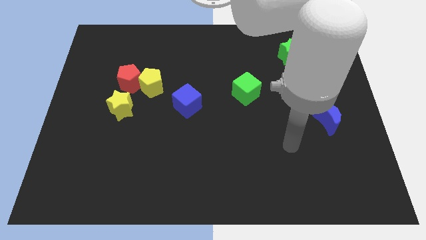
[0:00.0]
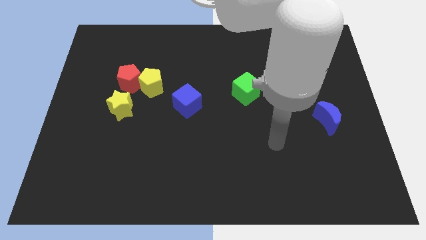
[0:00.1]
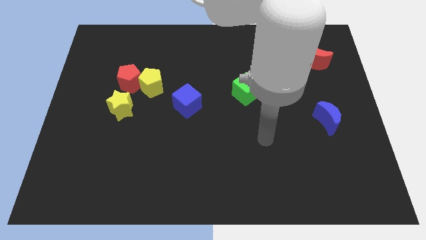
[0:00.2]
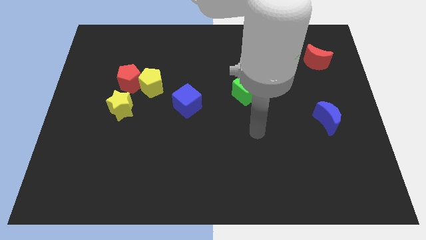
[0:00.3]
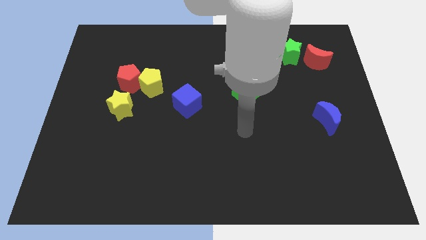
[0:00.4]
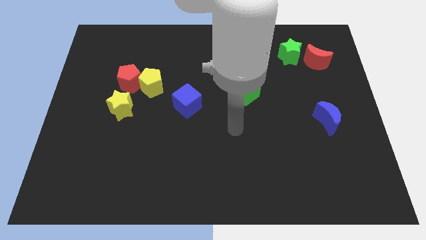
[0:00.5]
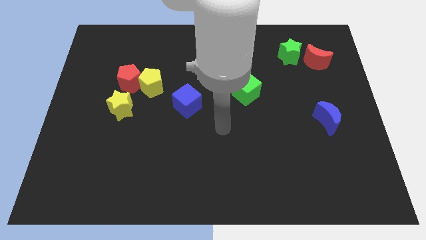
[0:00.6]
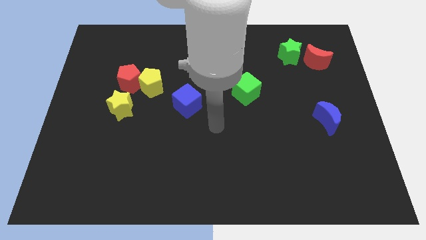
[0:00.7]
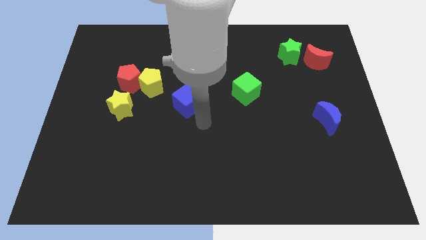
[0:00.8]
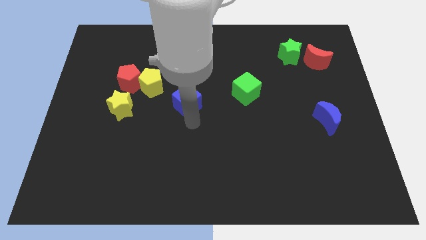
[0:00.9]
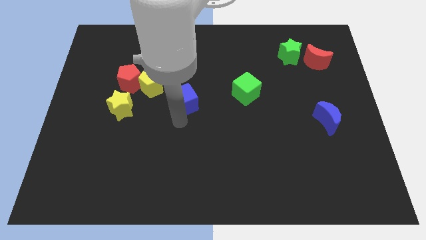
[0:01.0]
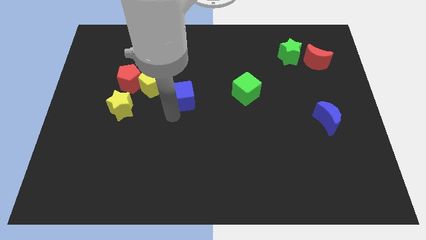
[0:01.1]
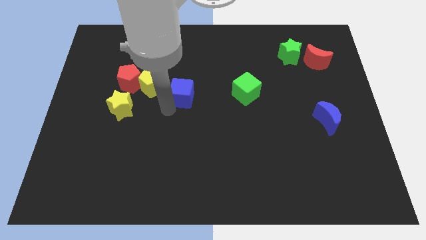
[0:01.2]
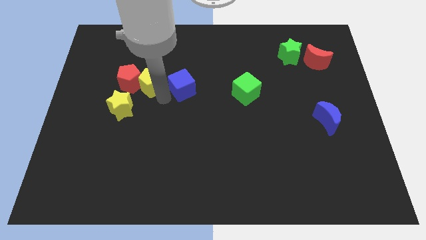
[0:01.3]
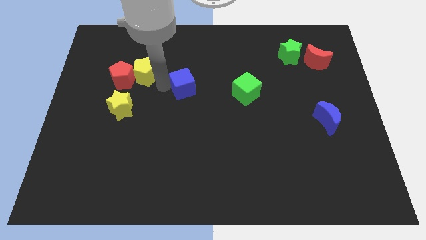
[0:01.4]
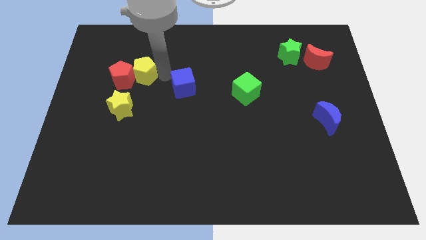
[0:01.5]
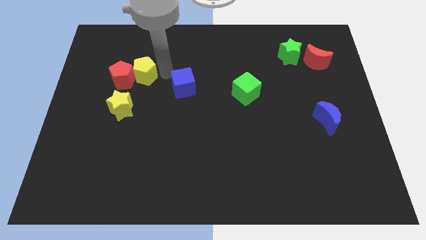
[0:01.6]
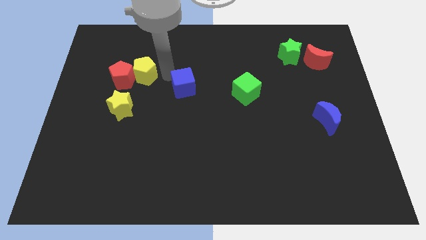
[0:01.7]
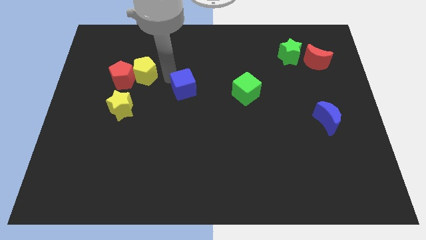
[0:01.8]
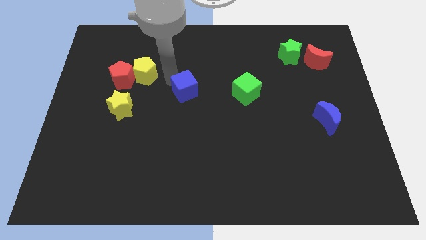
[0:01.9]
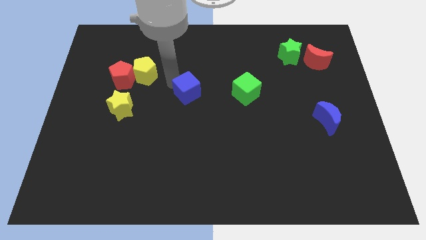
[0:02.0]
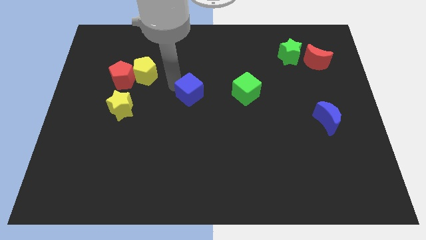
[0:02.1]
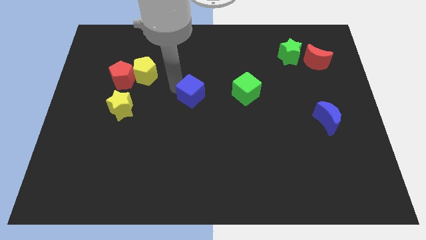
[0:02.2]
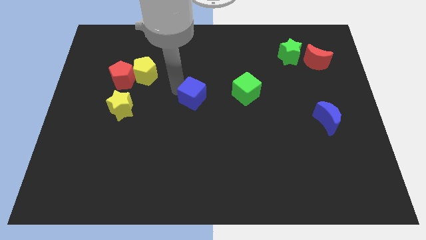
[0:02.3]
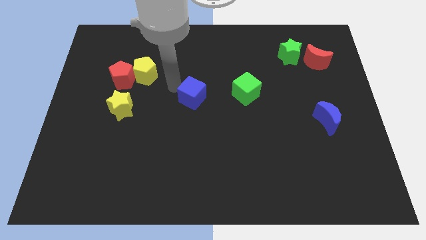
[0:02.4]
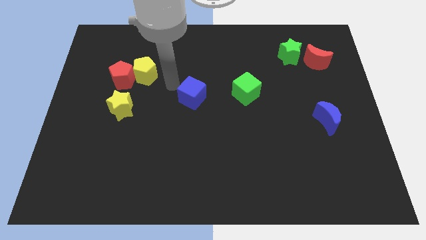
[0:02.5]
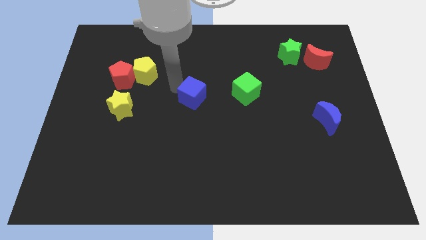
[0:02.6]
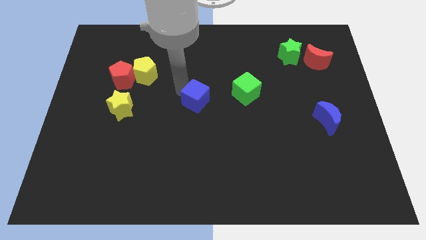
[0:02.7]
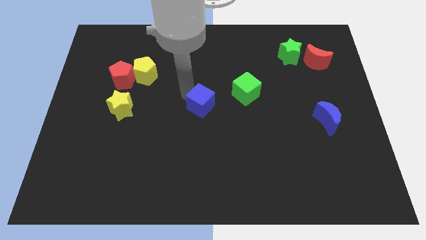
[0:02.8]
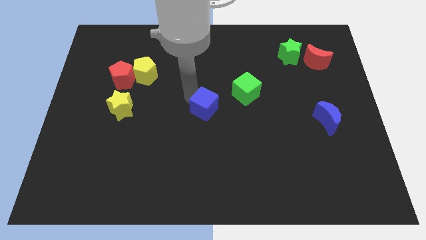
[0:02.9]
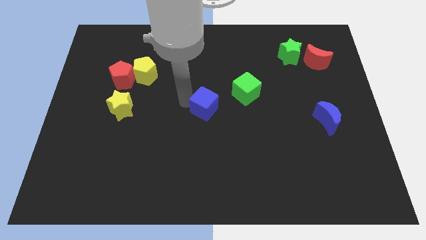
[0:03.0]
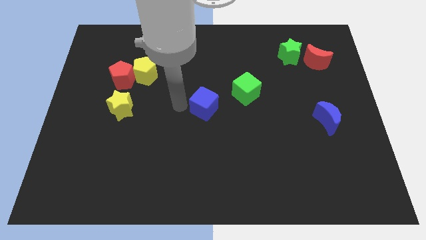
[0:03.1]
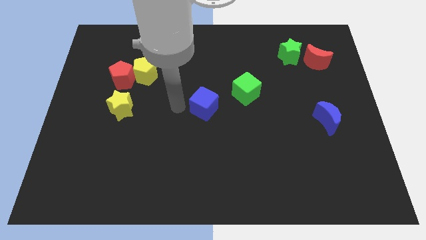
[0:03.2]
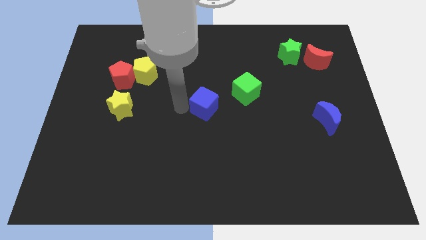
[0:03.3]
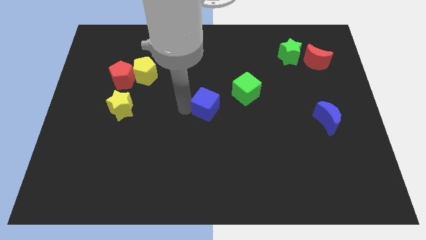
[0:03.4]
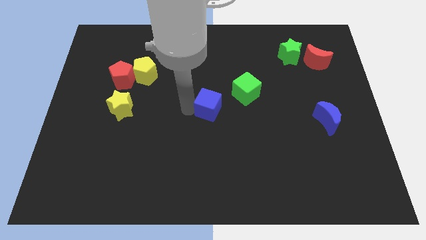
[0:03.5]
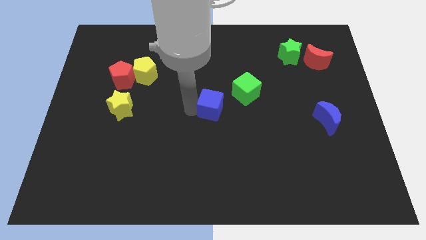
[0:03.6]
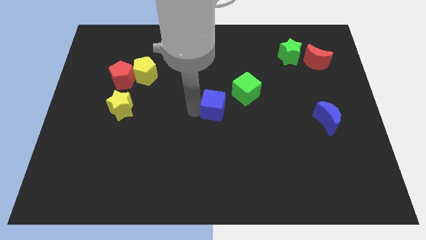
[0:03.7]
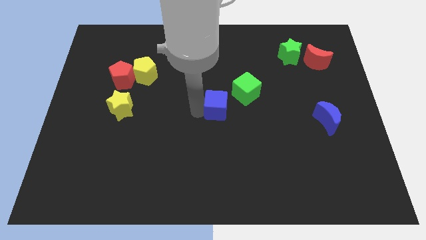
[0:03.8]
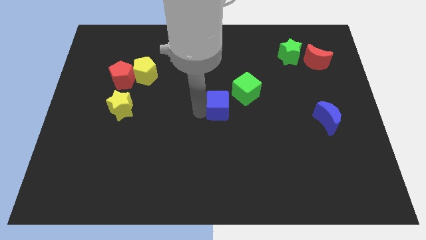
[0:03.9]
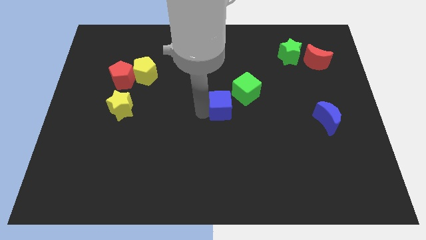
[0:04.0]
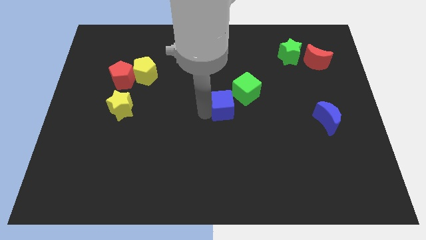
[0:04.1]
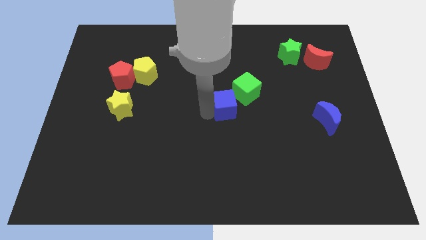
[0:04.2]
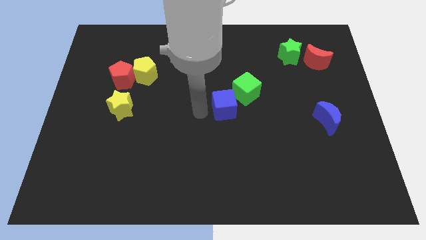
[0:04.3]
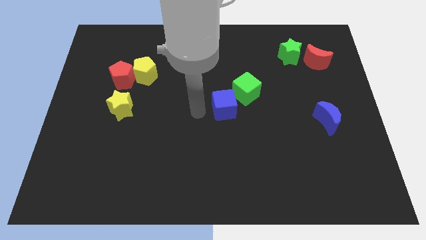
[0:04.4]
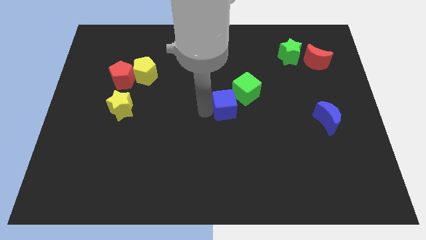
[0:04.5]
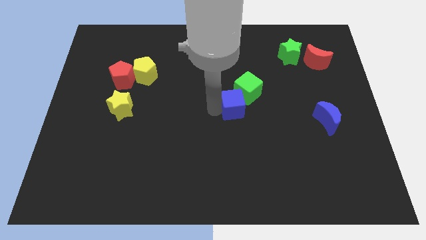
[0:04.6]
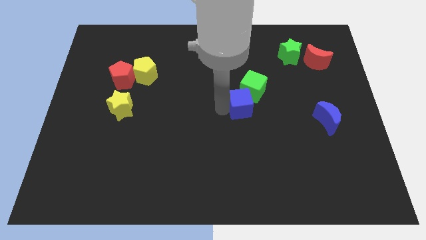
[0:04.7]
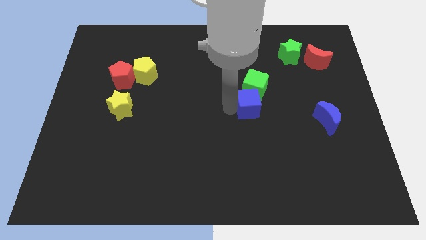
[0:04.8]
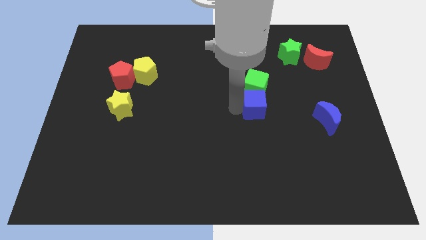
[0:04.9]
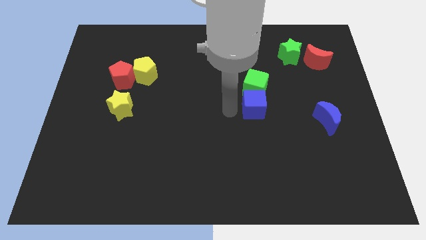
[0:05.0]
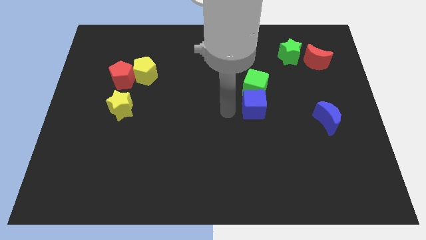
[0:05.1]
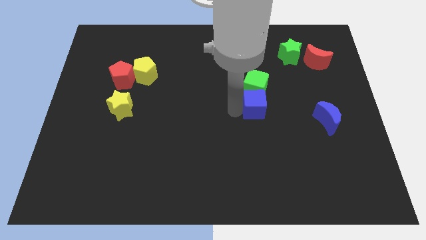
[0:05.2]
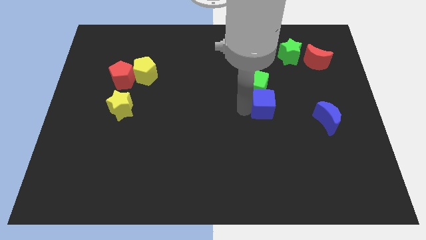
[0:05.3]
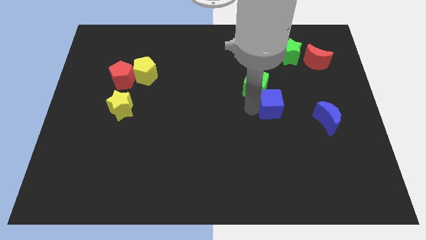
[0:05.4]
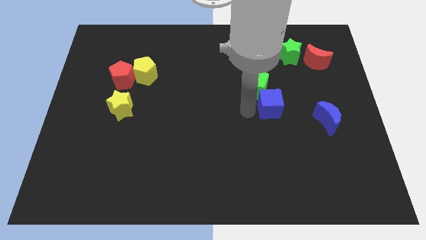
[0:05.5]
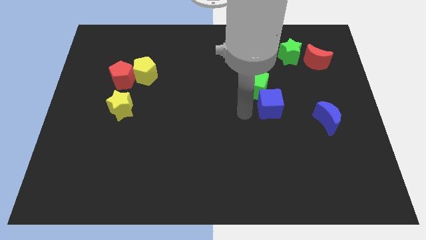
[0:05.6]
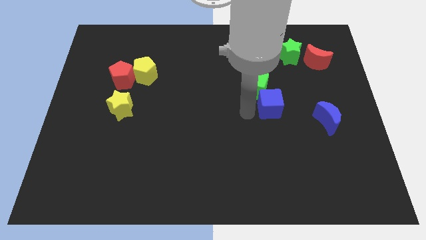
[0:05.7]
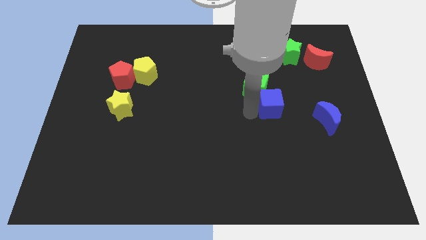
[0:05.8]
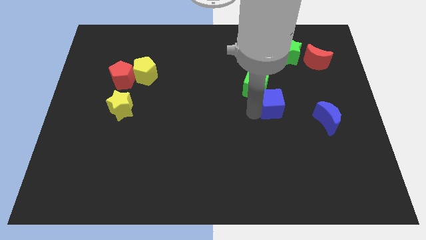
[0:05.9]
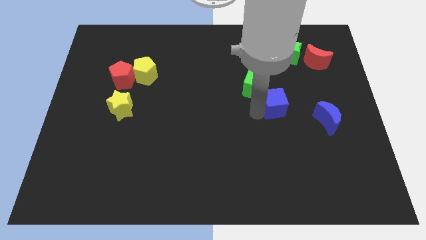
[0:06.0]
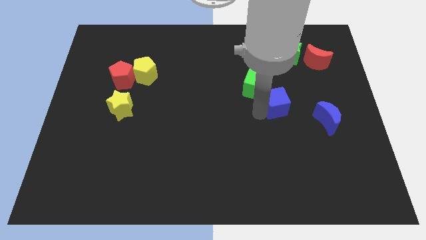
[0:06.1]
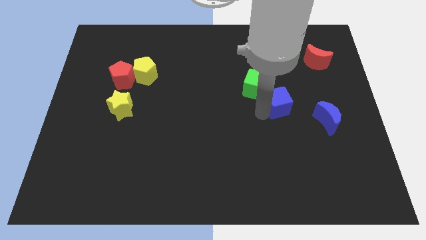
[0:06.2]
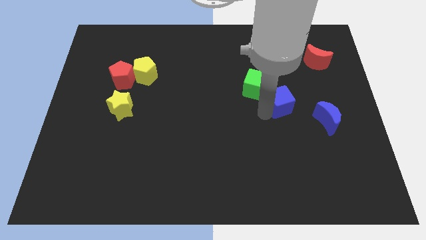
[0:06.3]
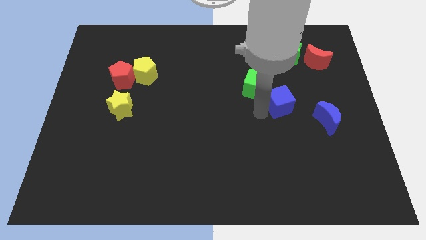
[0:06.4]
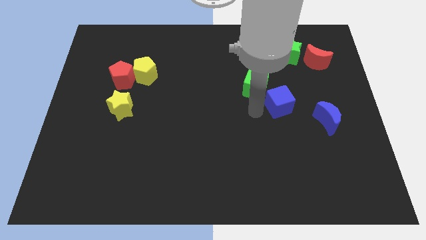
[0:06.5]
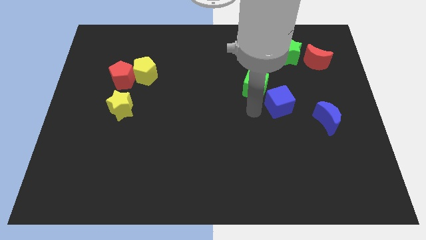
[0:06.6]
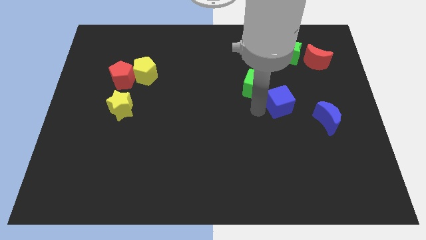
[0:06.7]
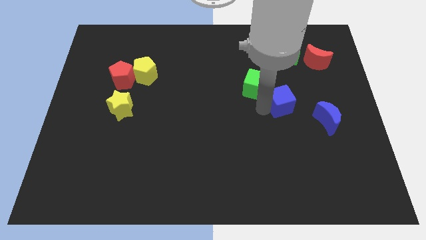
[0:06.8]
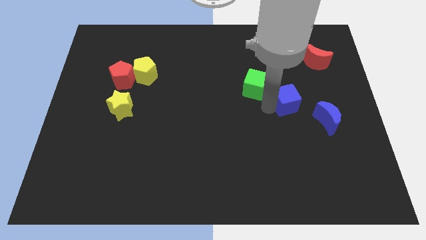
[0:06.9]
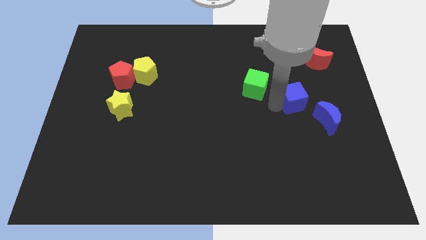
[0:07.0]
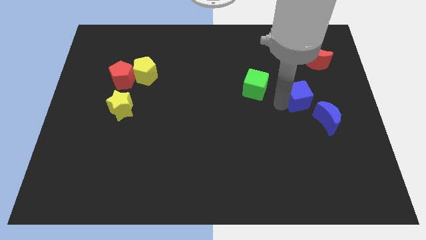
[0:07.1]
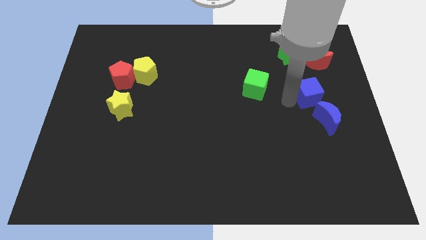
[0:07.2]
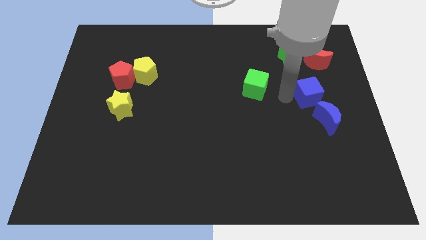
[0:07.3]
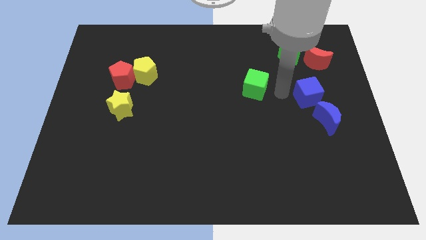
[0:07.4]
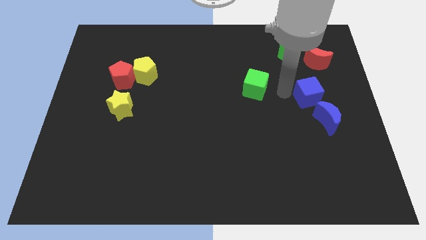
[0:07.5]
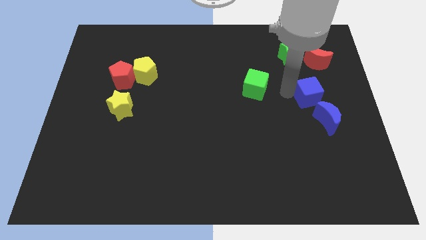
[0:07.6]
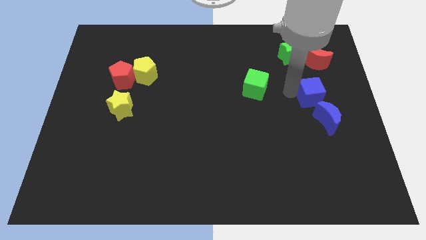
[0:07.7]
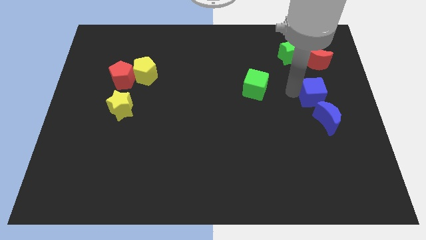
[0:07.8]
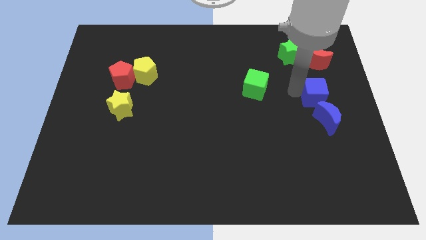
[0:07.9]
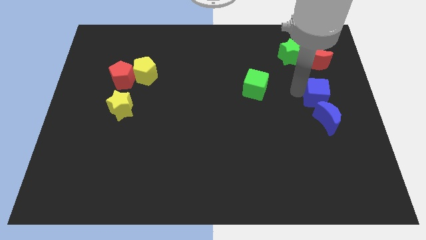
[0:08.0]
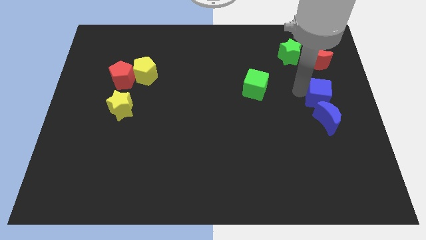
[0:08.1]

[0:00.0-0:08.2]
push the blue cube to the right side of the board
